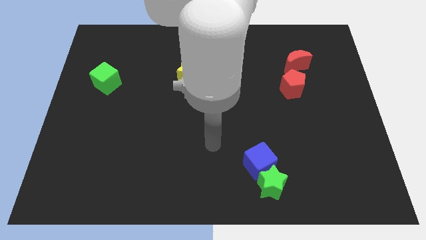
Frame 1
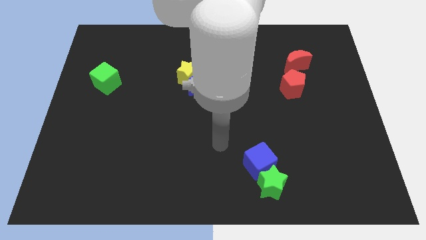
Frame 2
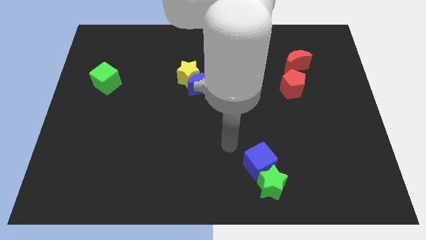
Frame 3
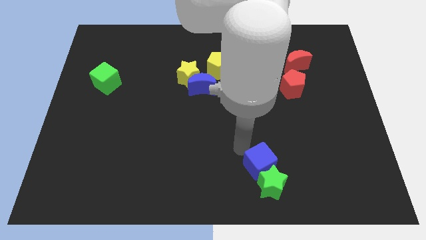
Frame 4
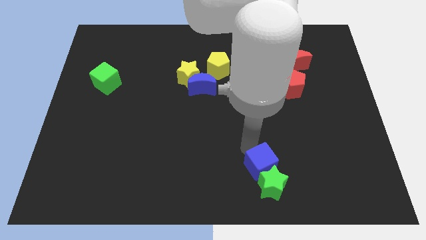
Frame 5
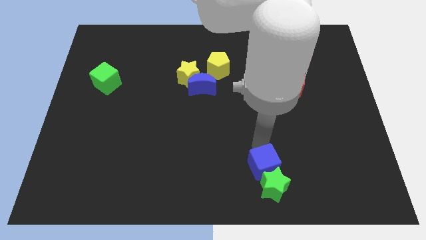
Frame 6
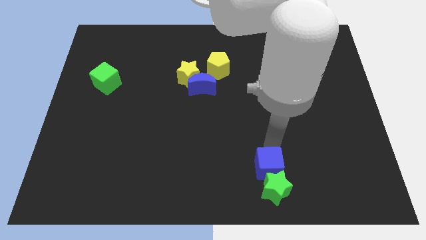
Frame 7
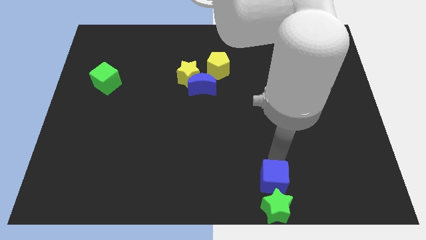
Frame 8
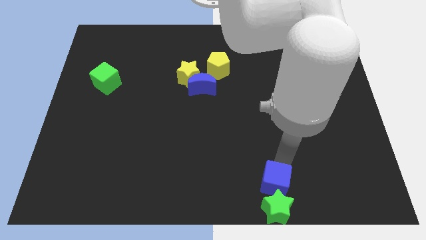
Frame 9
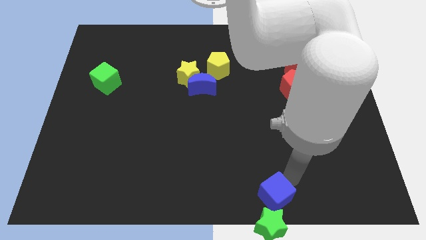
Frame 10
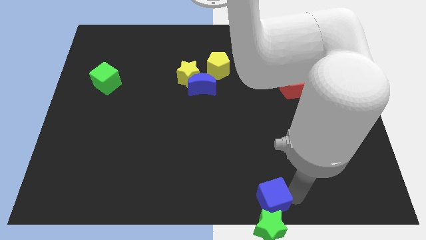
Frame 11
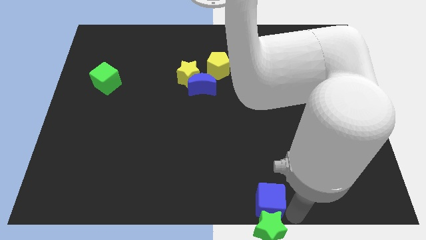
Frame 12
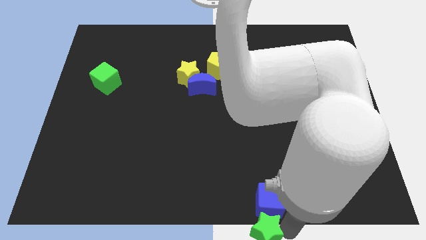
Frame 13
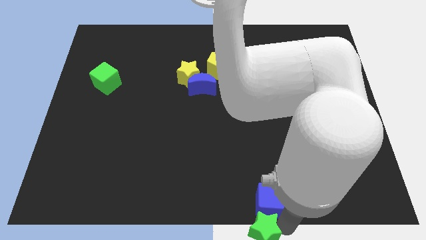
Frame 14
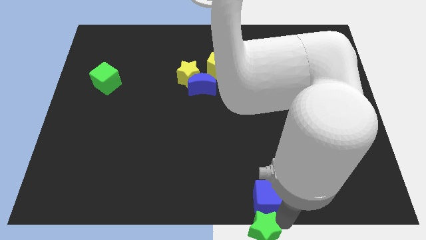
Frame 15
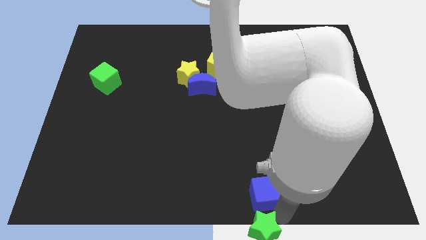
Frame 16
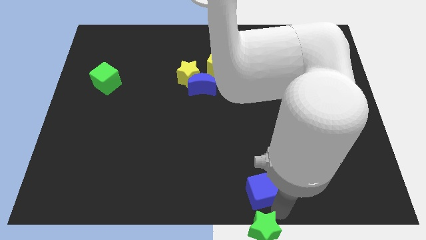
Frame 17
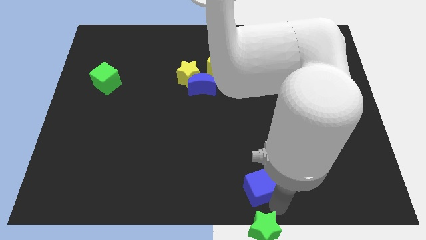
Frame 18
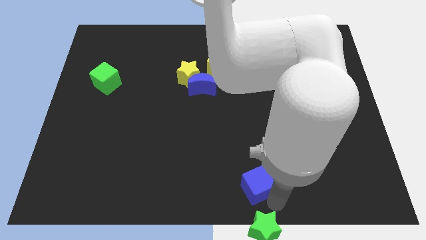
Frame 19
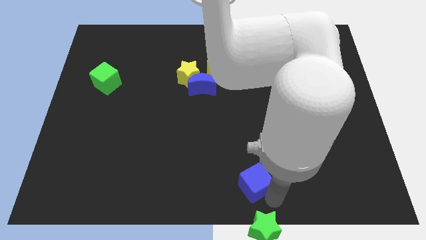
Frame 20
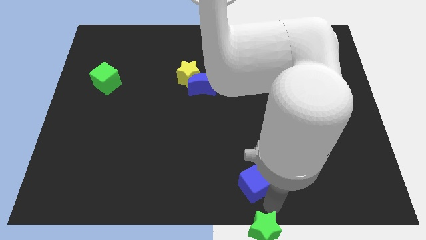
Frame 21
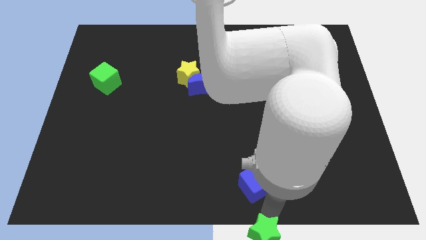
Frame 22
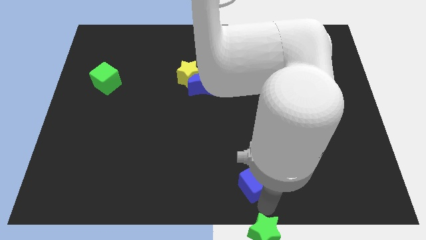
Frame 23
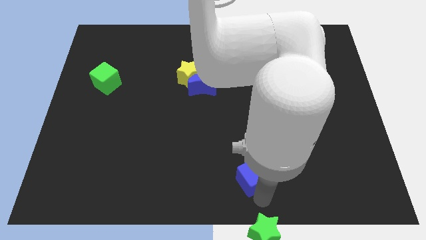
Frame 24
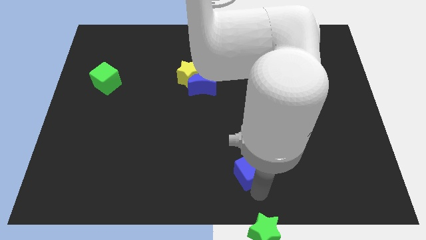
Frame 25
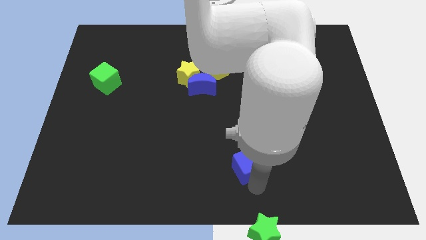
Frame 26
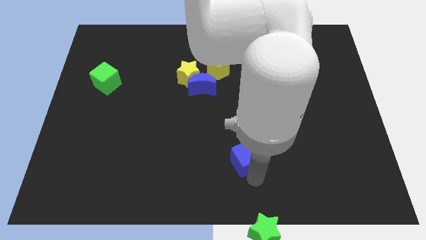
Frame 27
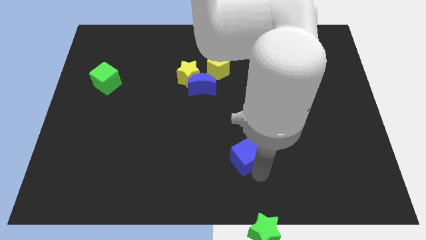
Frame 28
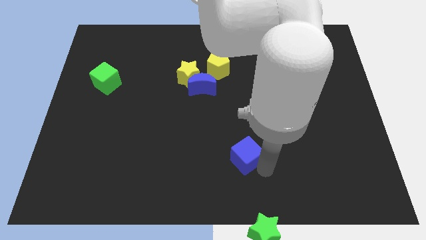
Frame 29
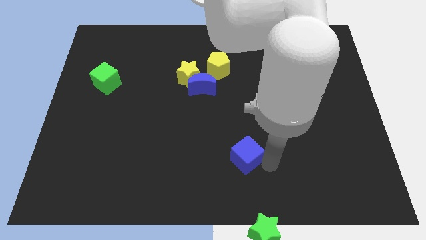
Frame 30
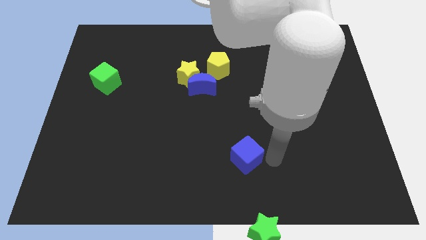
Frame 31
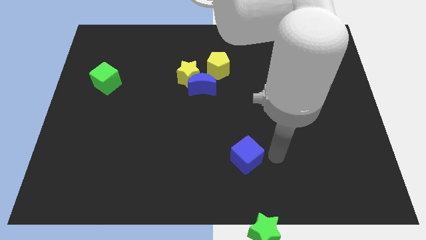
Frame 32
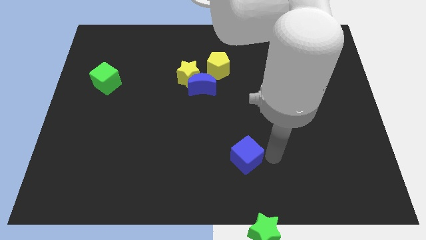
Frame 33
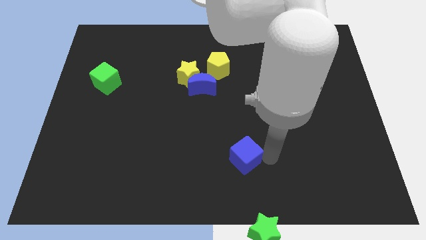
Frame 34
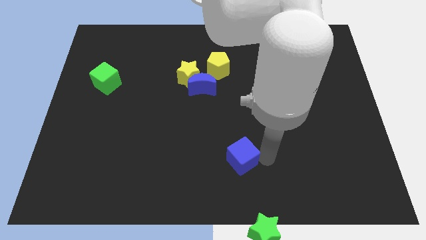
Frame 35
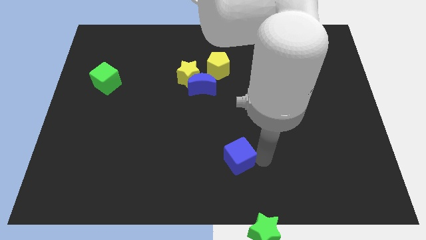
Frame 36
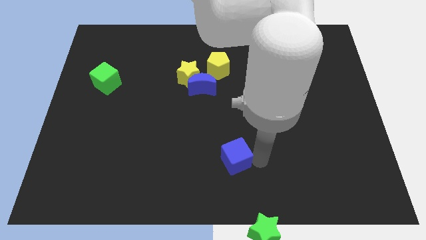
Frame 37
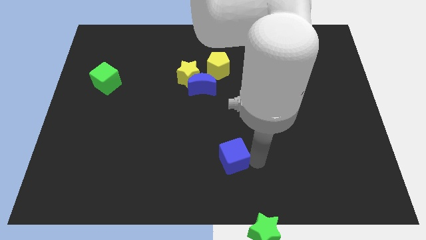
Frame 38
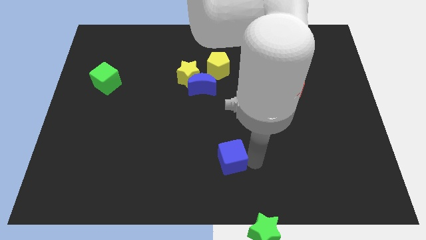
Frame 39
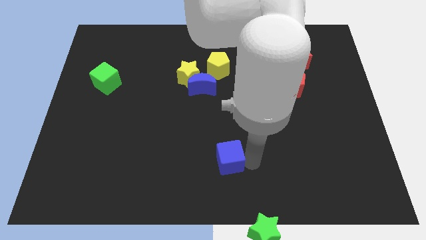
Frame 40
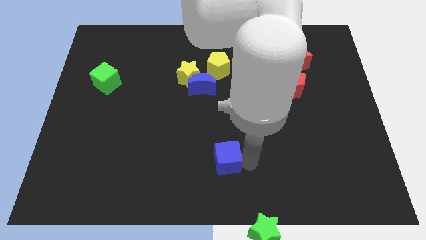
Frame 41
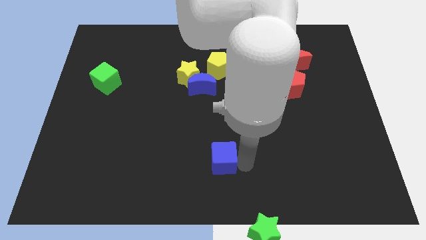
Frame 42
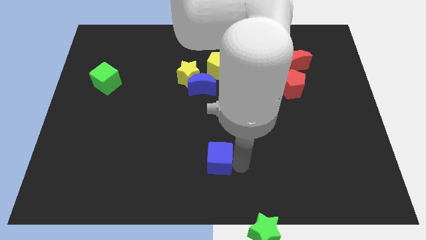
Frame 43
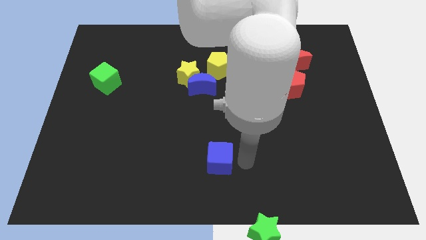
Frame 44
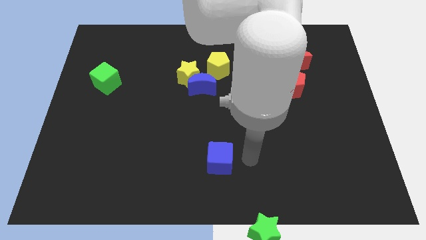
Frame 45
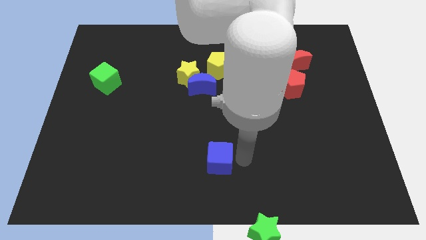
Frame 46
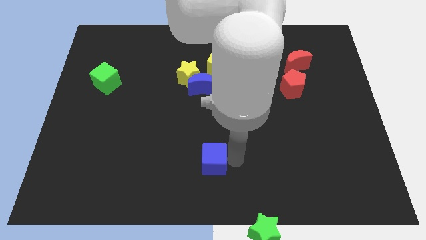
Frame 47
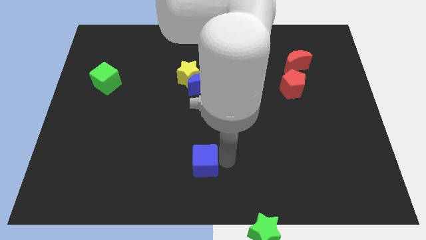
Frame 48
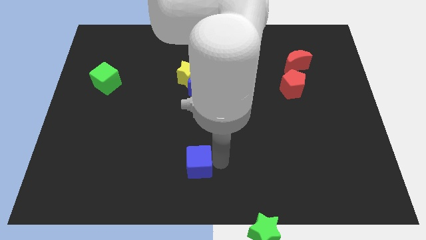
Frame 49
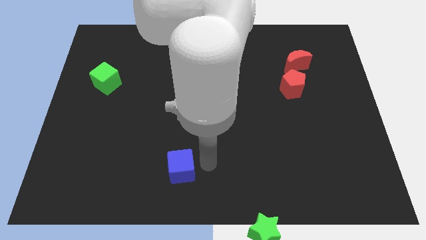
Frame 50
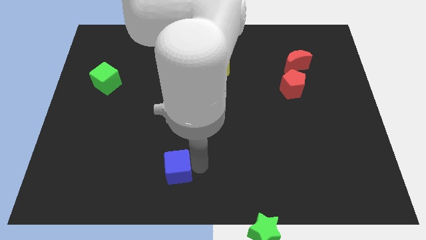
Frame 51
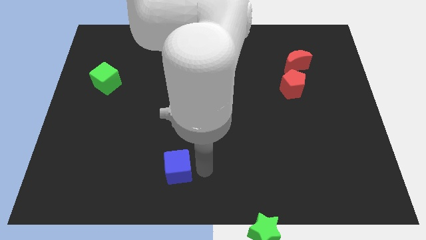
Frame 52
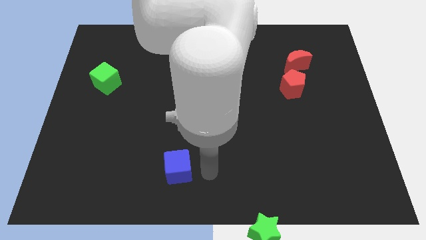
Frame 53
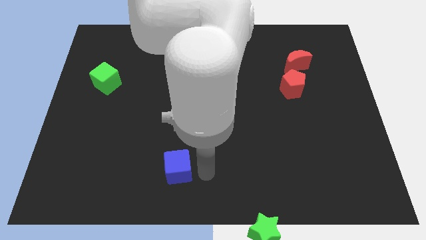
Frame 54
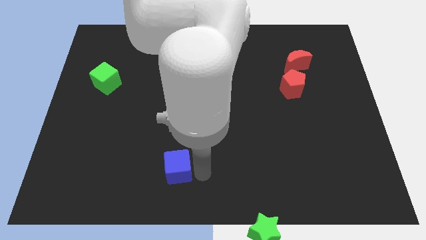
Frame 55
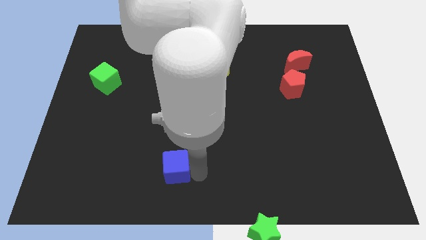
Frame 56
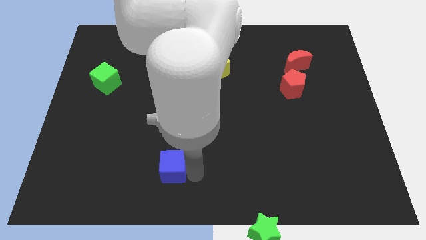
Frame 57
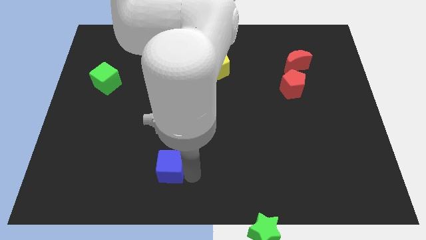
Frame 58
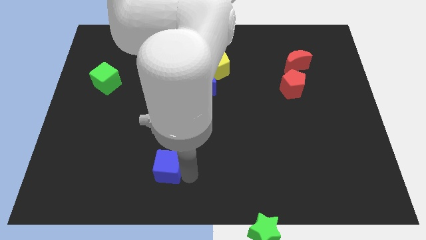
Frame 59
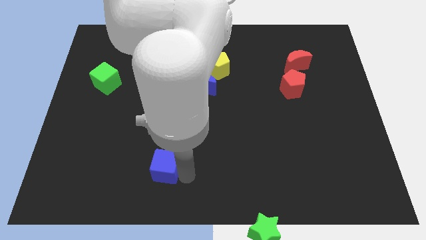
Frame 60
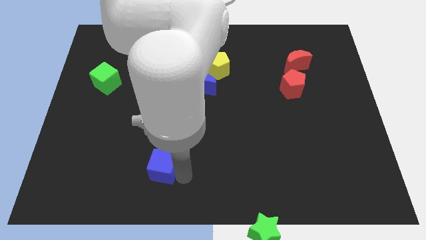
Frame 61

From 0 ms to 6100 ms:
slide the blue cube left

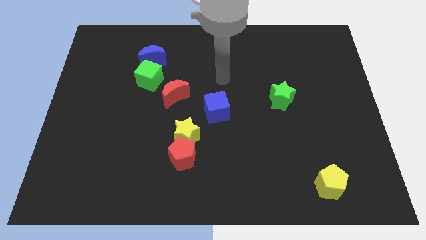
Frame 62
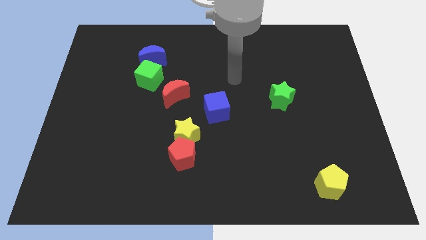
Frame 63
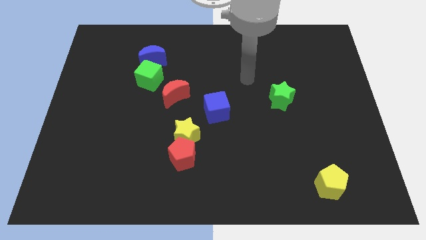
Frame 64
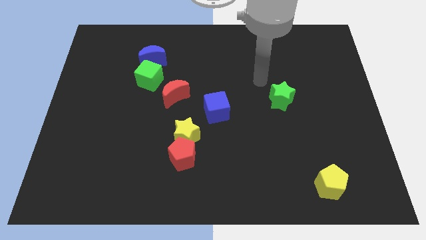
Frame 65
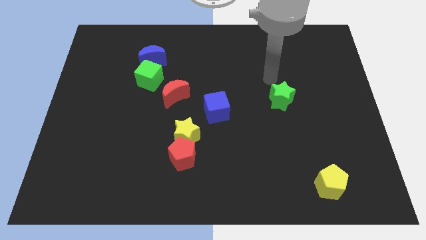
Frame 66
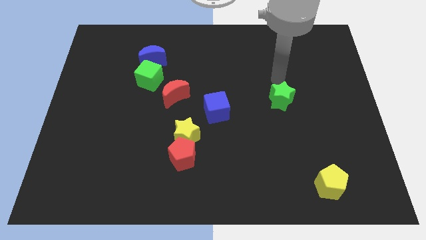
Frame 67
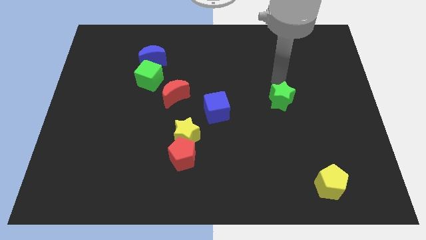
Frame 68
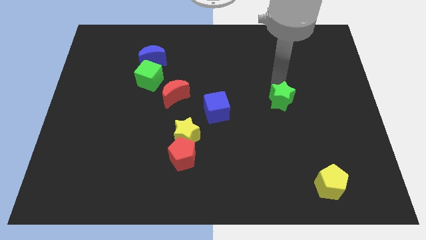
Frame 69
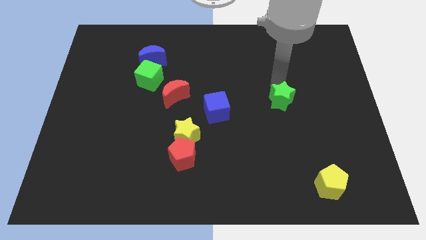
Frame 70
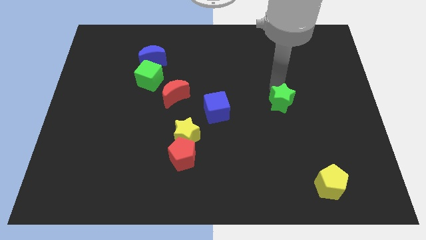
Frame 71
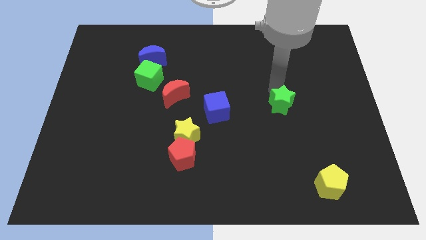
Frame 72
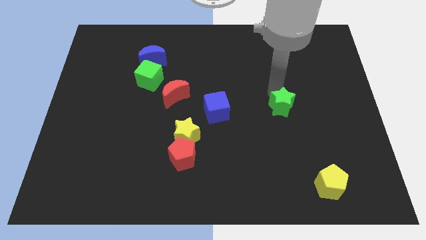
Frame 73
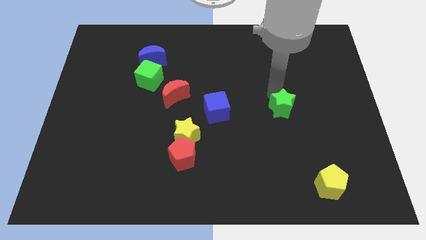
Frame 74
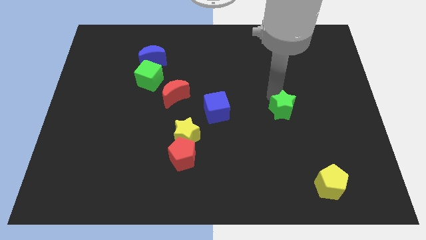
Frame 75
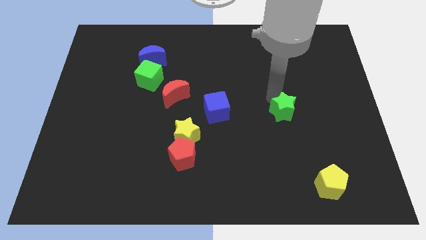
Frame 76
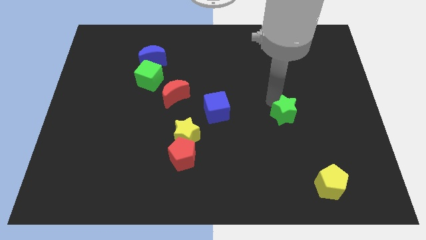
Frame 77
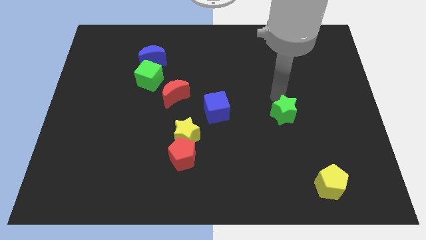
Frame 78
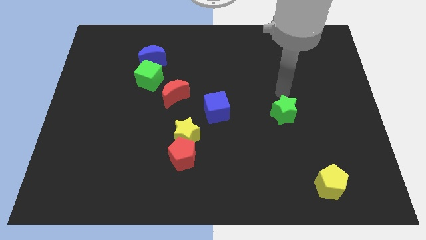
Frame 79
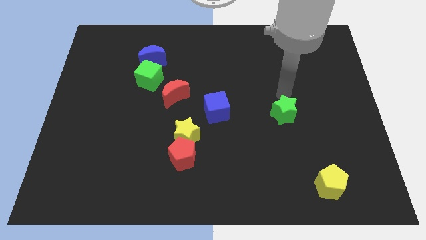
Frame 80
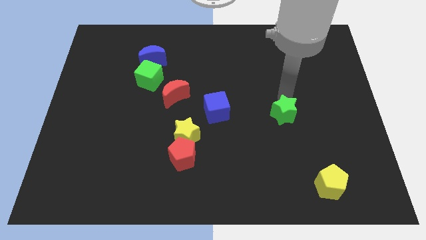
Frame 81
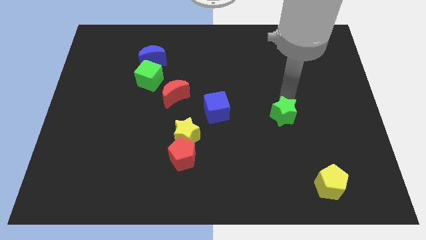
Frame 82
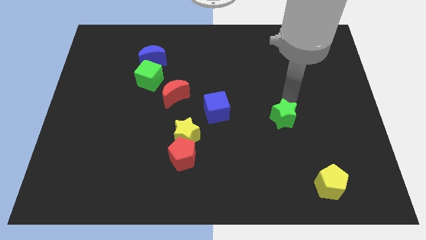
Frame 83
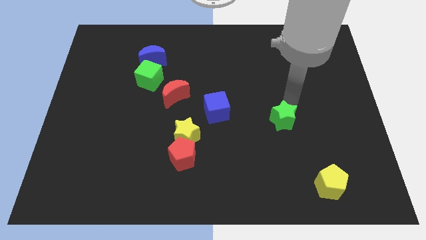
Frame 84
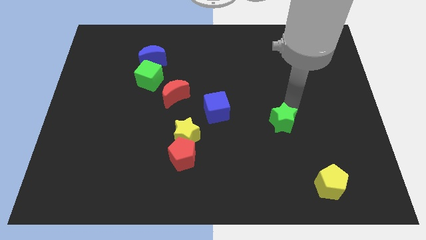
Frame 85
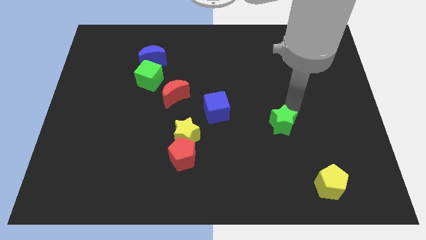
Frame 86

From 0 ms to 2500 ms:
slightly move the green star down
